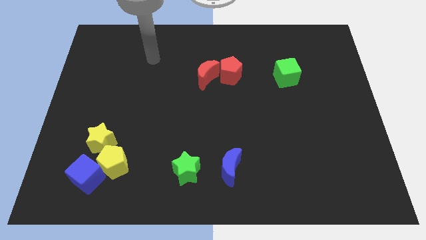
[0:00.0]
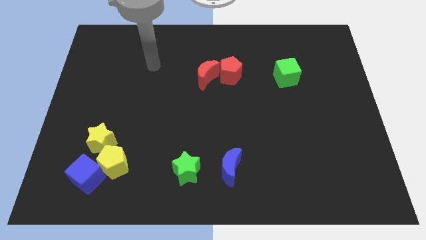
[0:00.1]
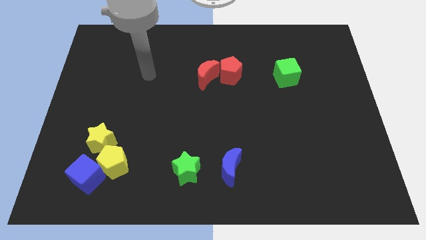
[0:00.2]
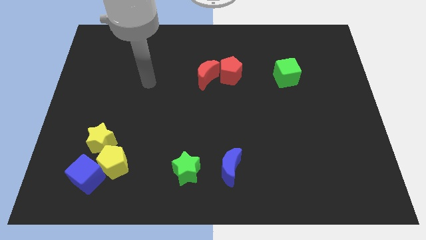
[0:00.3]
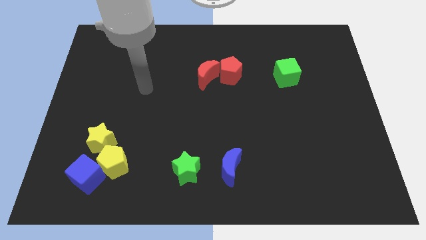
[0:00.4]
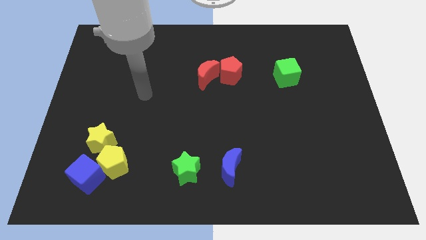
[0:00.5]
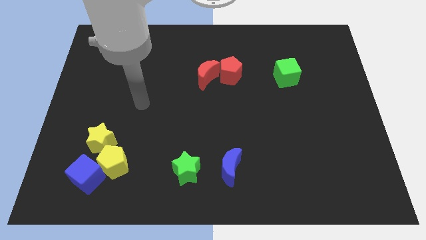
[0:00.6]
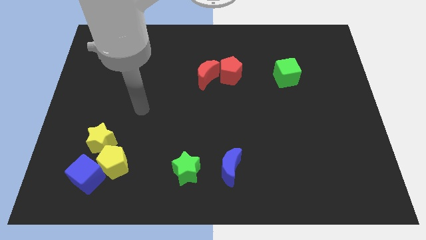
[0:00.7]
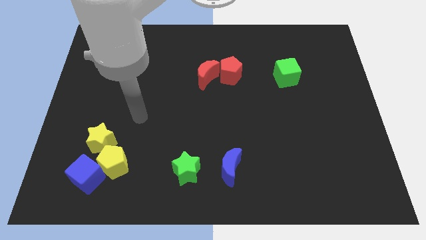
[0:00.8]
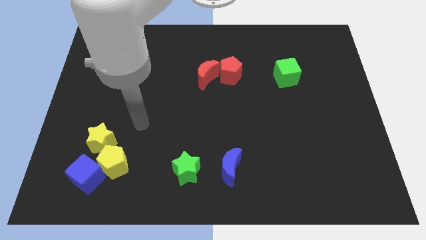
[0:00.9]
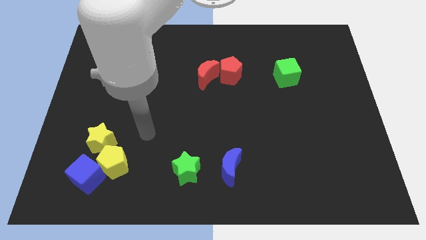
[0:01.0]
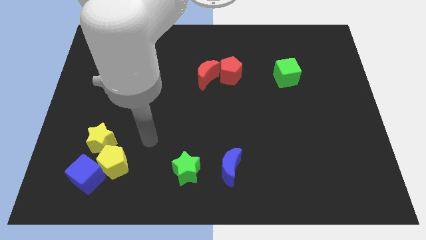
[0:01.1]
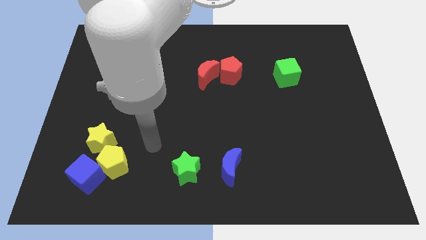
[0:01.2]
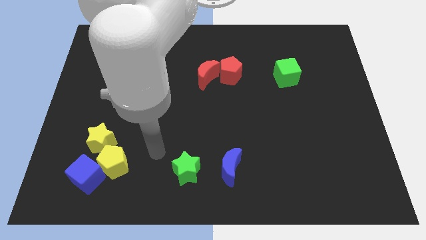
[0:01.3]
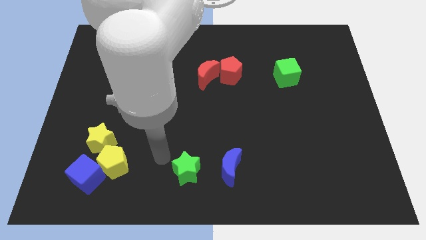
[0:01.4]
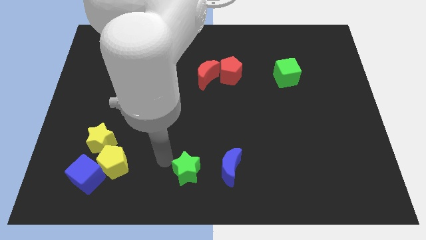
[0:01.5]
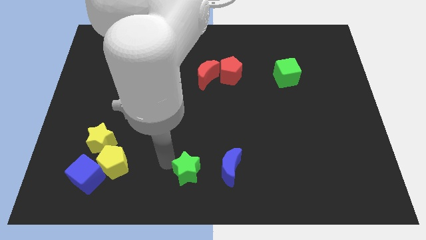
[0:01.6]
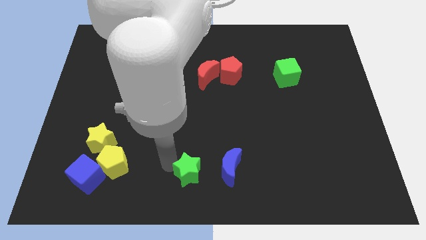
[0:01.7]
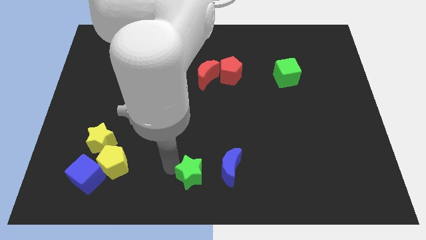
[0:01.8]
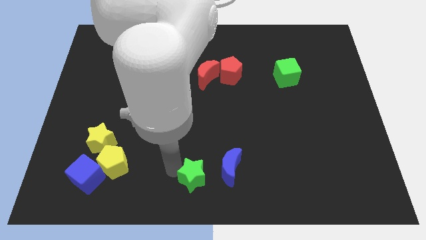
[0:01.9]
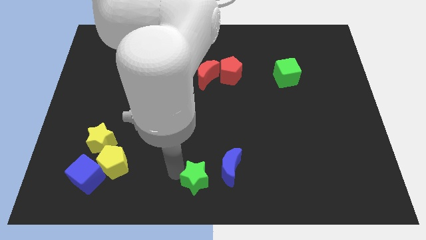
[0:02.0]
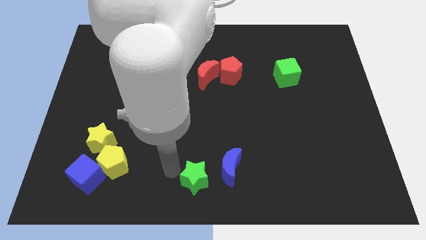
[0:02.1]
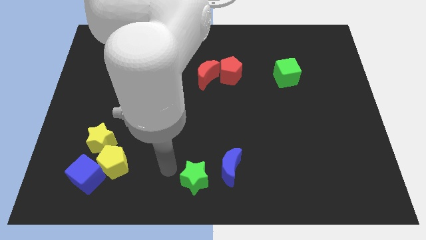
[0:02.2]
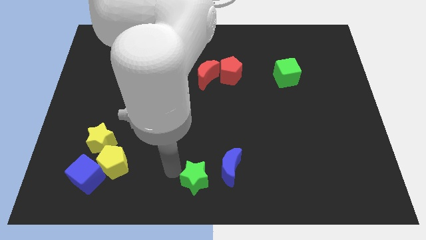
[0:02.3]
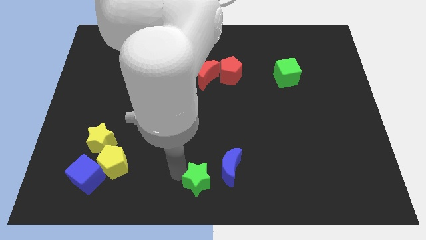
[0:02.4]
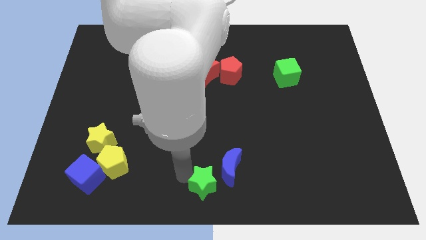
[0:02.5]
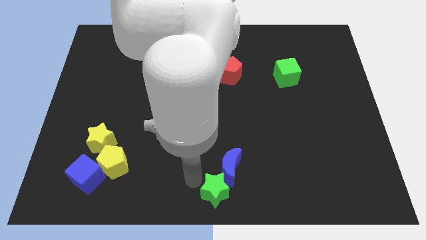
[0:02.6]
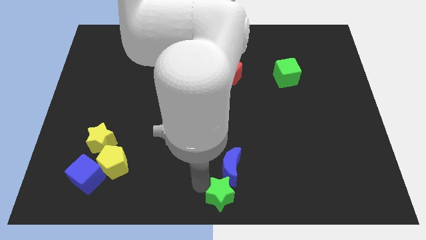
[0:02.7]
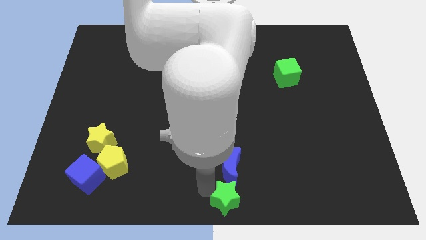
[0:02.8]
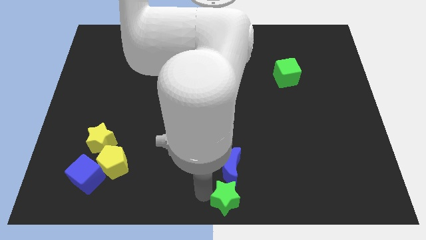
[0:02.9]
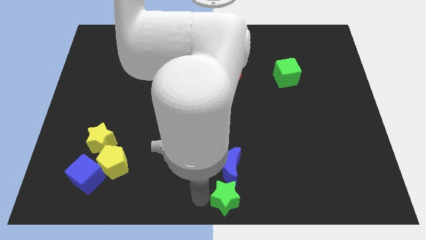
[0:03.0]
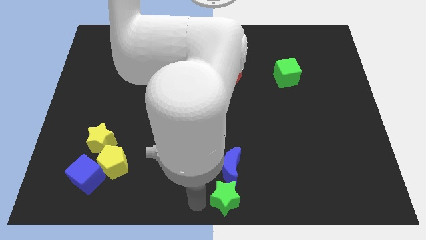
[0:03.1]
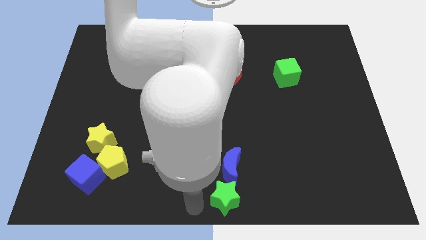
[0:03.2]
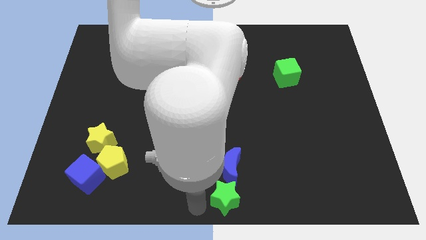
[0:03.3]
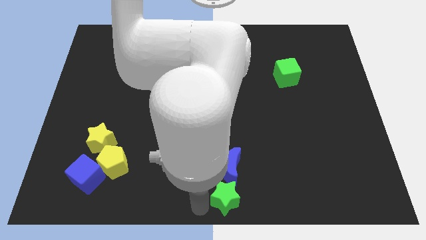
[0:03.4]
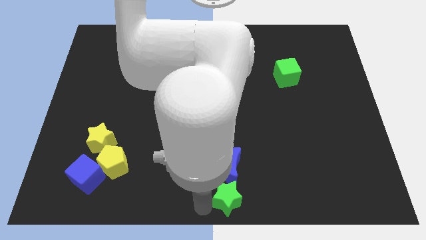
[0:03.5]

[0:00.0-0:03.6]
push the green star to the right a little

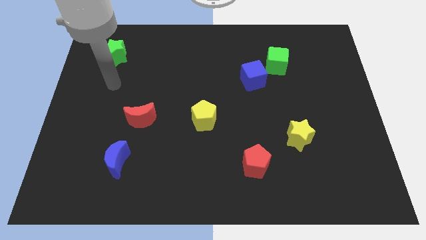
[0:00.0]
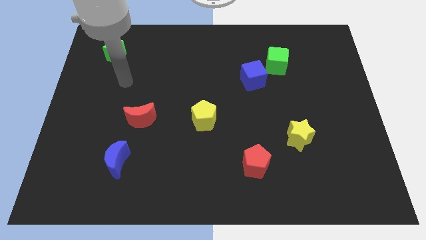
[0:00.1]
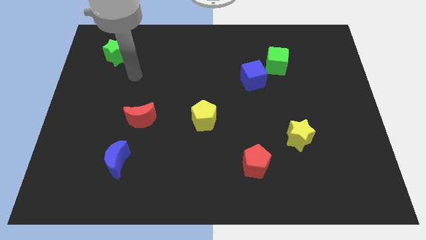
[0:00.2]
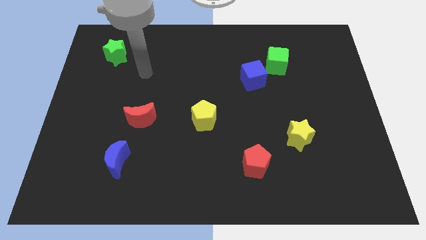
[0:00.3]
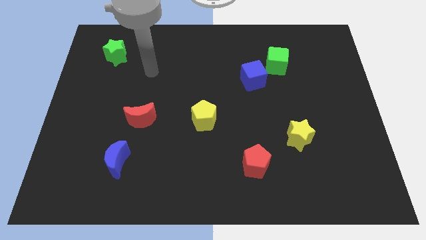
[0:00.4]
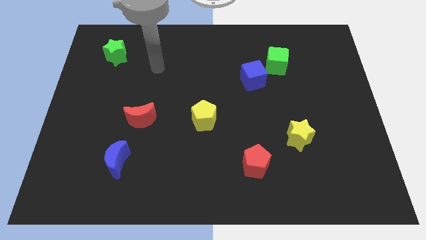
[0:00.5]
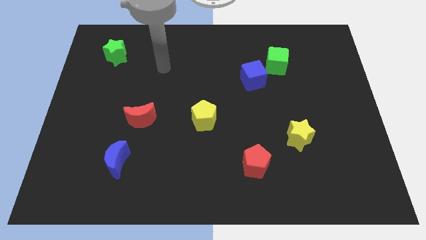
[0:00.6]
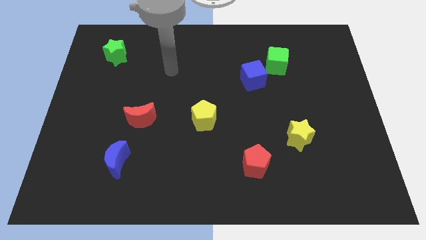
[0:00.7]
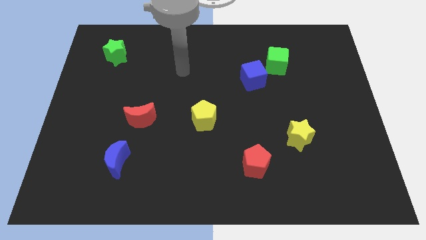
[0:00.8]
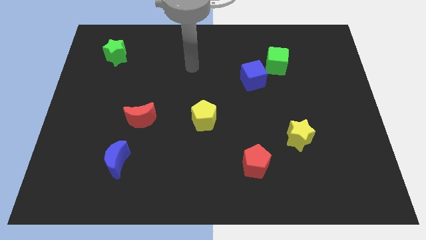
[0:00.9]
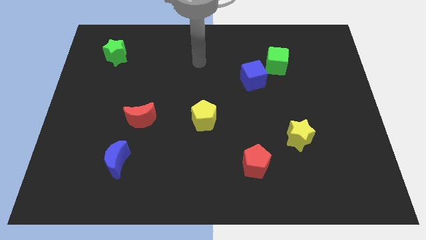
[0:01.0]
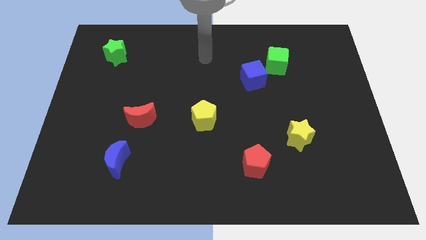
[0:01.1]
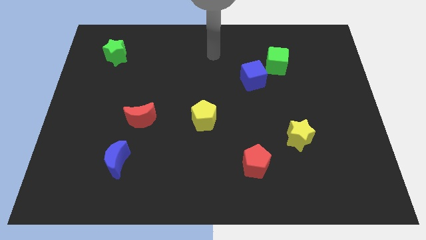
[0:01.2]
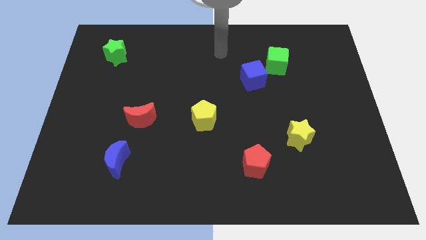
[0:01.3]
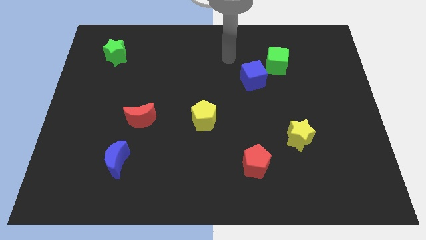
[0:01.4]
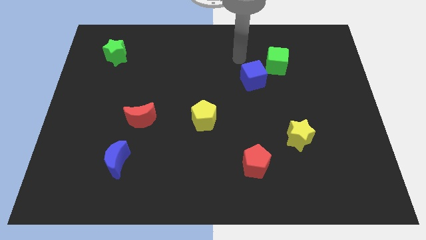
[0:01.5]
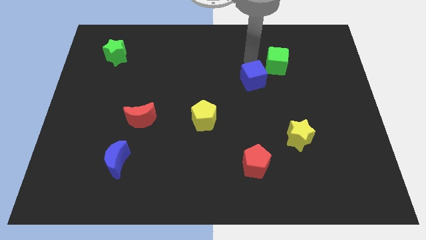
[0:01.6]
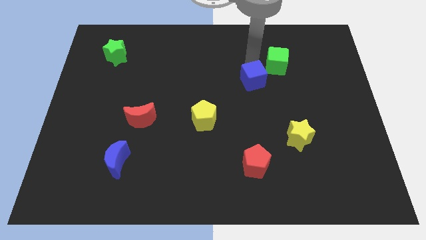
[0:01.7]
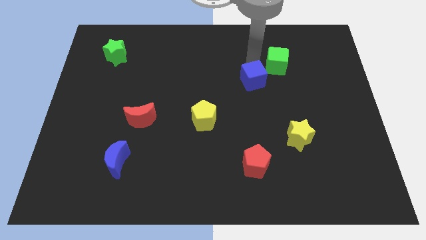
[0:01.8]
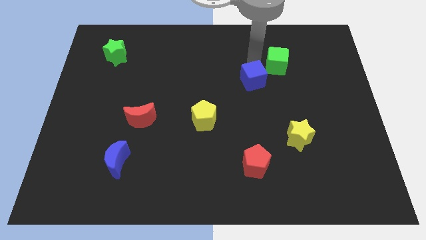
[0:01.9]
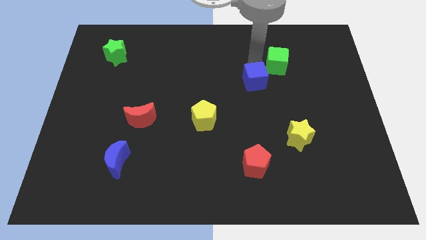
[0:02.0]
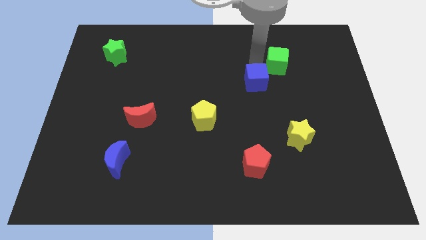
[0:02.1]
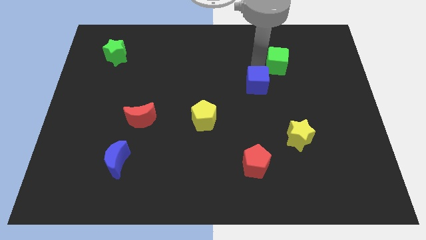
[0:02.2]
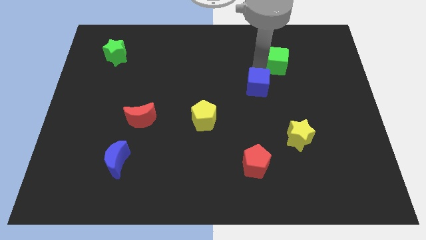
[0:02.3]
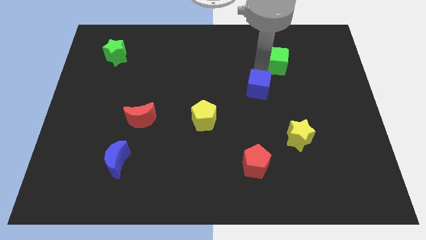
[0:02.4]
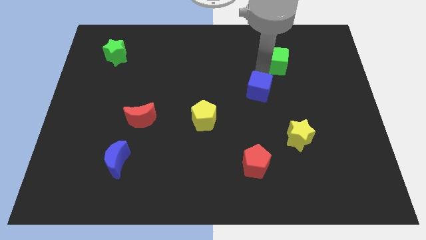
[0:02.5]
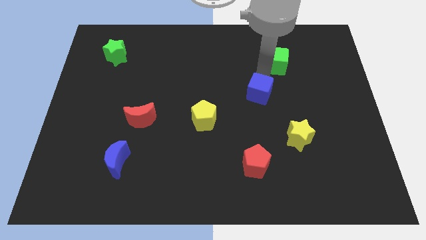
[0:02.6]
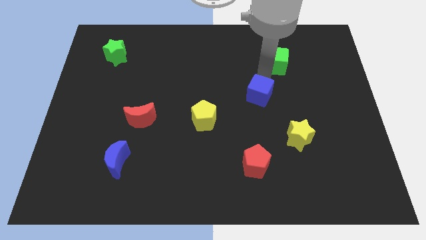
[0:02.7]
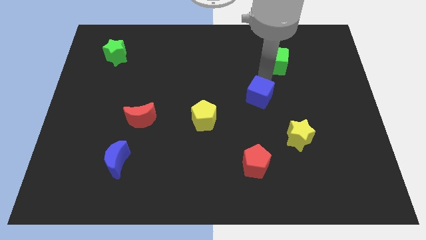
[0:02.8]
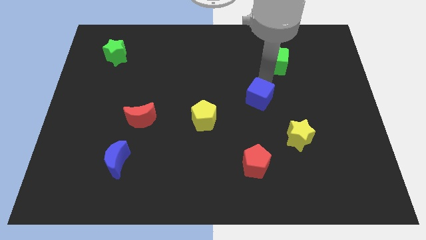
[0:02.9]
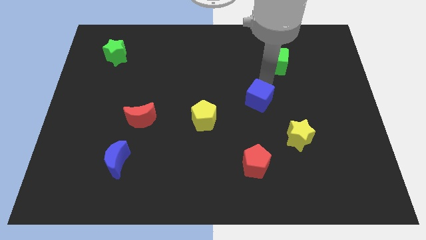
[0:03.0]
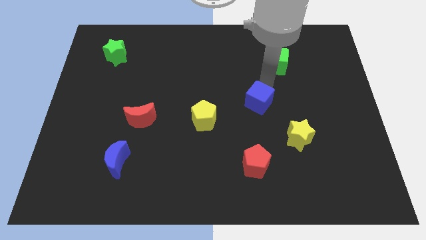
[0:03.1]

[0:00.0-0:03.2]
slightly move the blue cube down

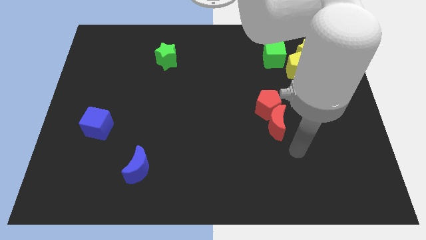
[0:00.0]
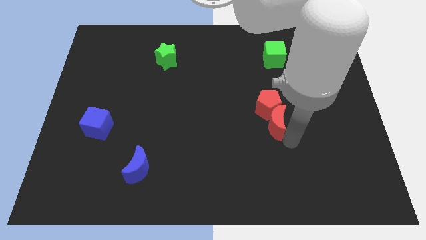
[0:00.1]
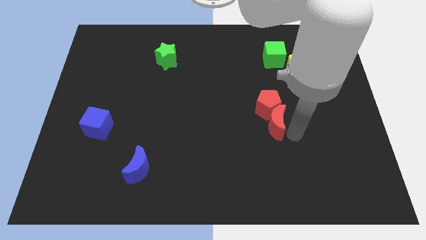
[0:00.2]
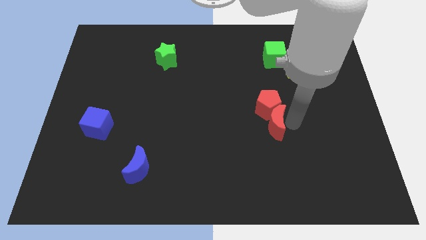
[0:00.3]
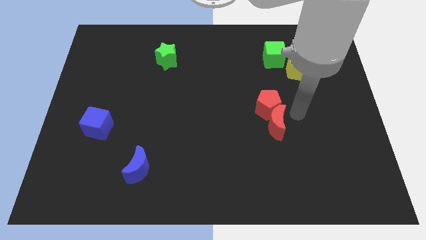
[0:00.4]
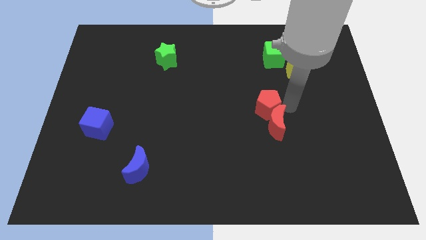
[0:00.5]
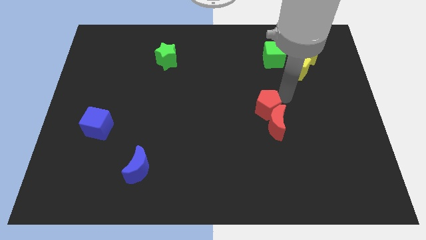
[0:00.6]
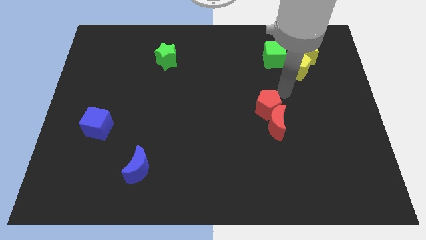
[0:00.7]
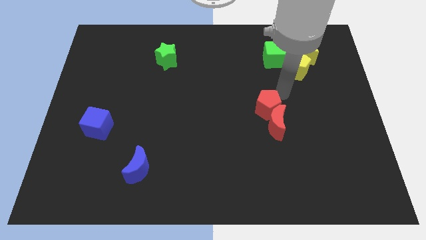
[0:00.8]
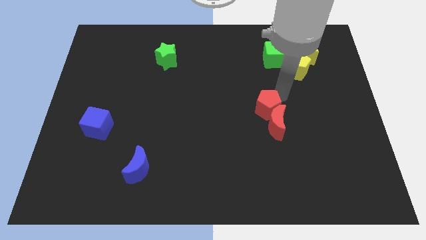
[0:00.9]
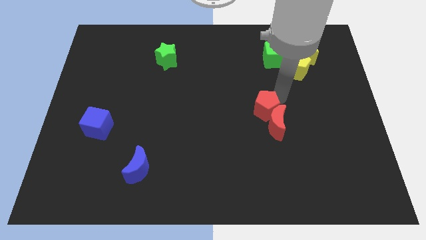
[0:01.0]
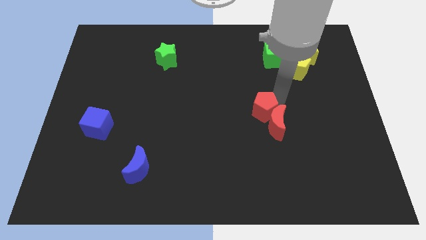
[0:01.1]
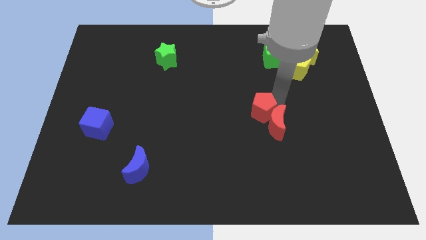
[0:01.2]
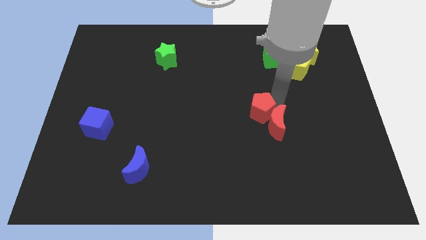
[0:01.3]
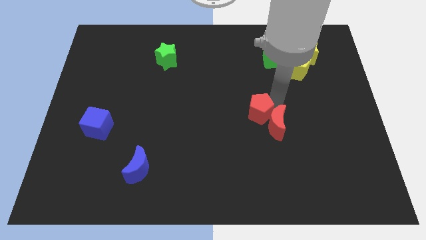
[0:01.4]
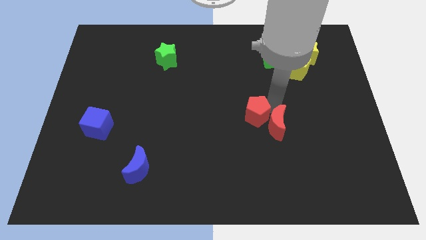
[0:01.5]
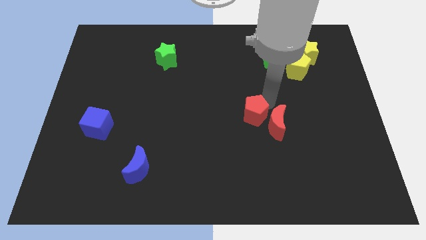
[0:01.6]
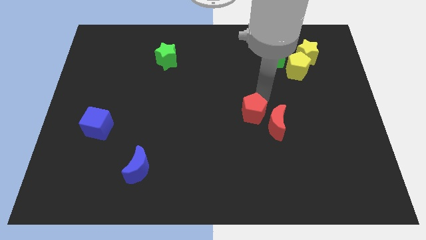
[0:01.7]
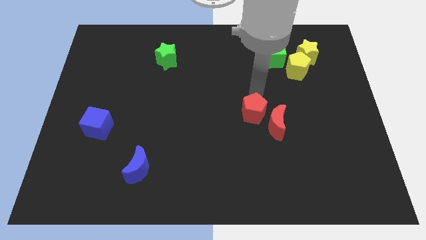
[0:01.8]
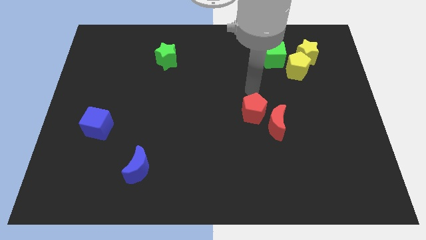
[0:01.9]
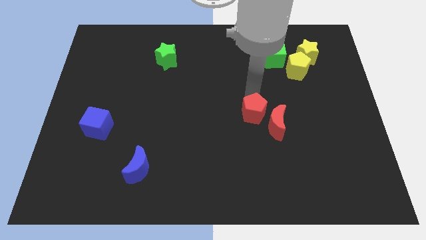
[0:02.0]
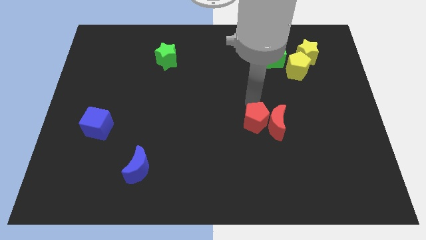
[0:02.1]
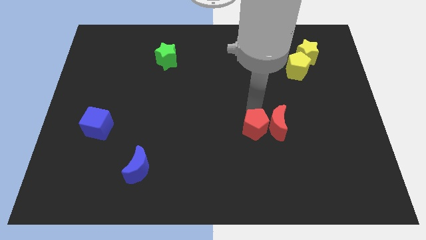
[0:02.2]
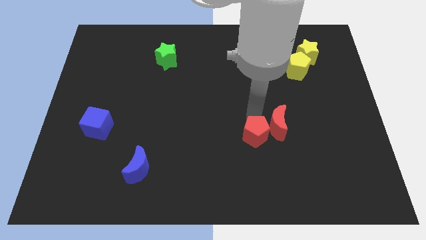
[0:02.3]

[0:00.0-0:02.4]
push the red pentagon downwards a bit
